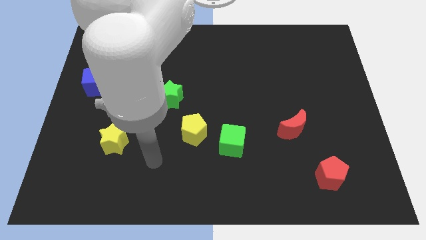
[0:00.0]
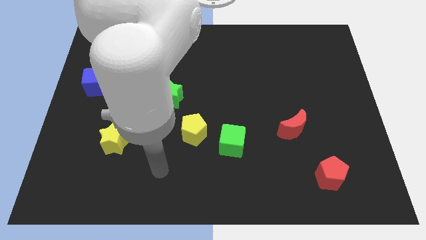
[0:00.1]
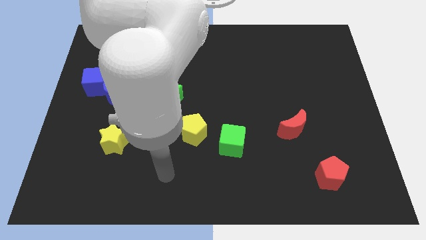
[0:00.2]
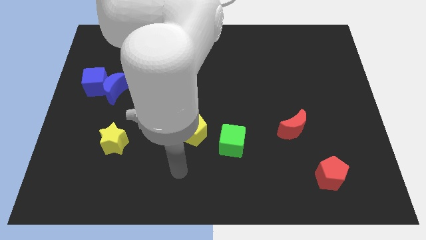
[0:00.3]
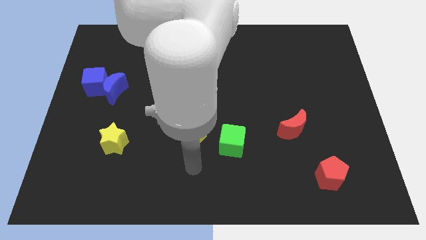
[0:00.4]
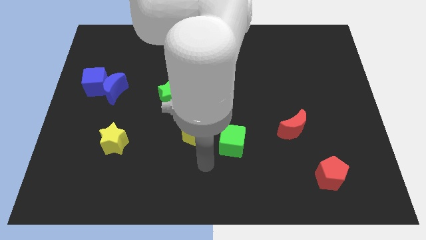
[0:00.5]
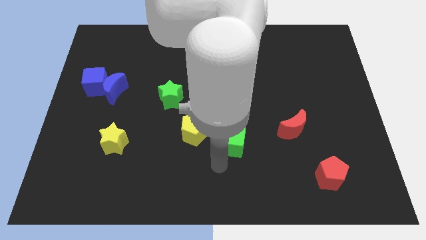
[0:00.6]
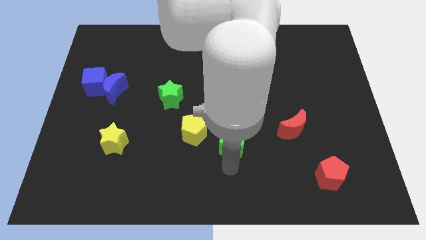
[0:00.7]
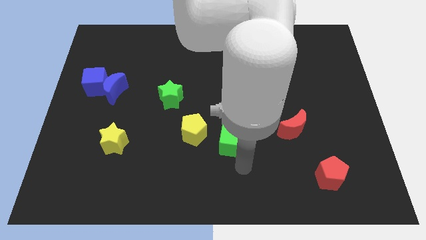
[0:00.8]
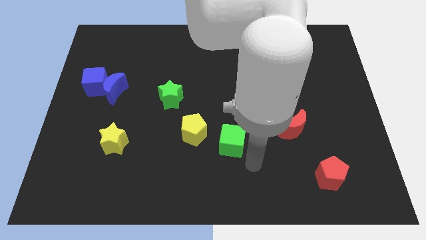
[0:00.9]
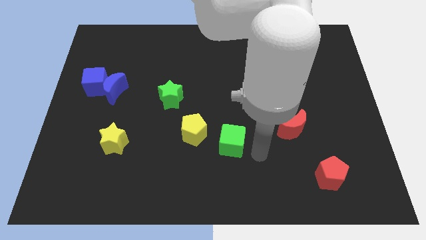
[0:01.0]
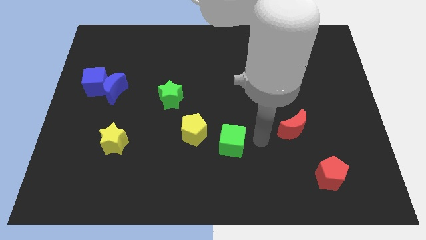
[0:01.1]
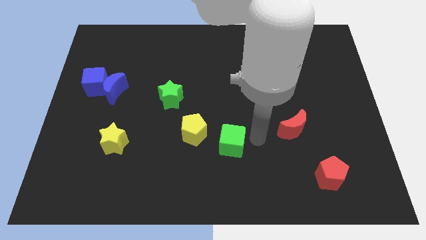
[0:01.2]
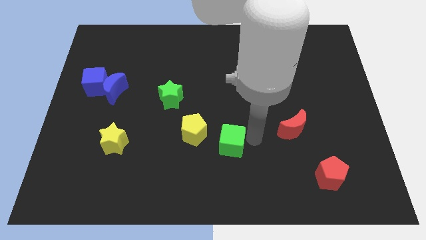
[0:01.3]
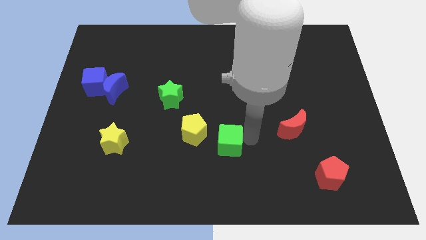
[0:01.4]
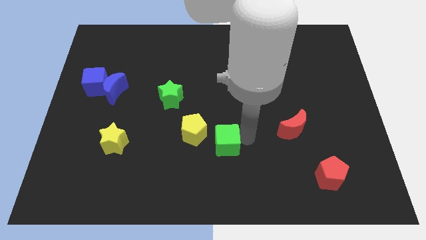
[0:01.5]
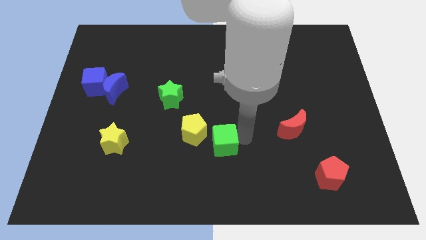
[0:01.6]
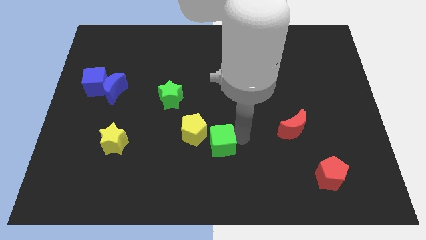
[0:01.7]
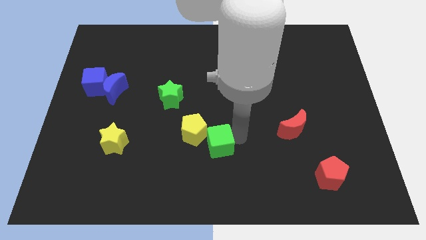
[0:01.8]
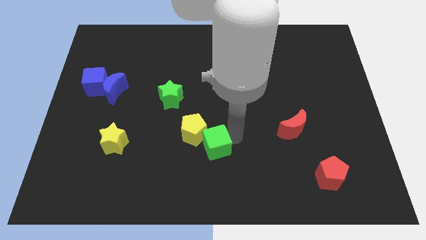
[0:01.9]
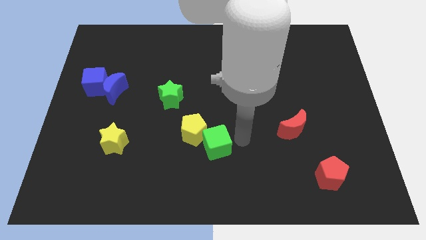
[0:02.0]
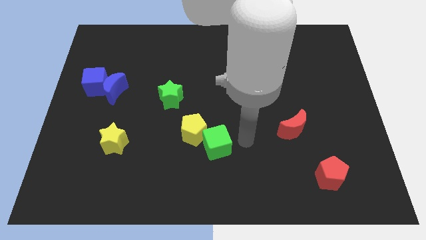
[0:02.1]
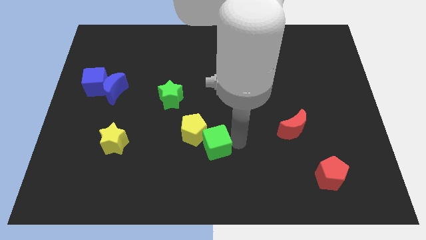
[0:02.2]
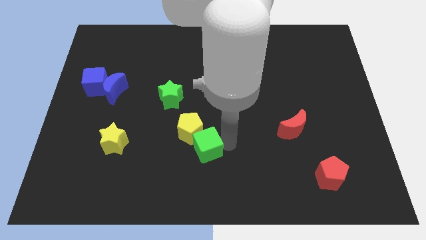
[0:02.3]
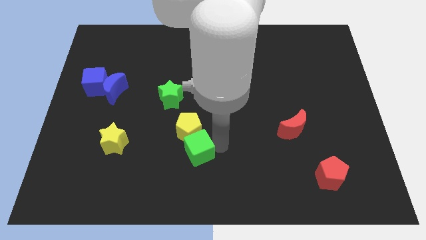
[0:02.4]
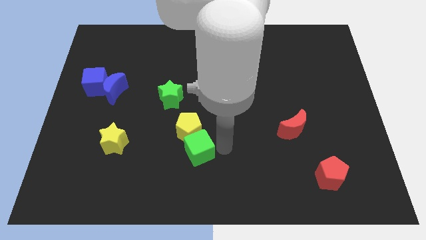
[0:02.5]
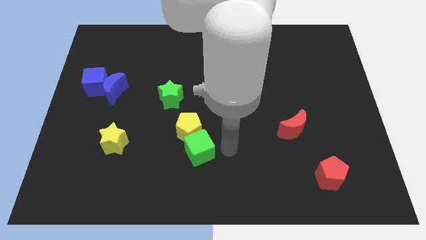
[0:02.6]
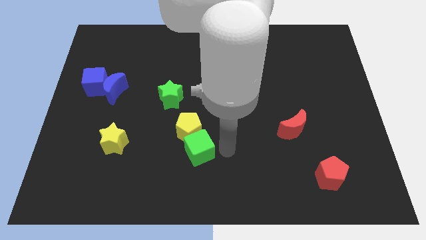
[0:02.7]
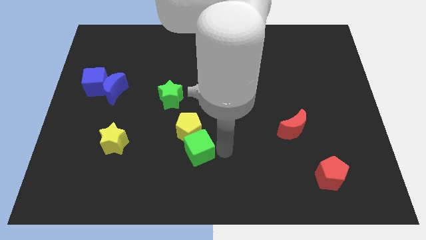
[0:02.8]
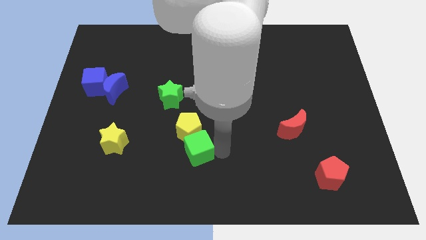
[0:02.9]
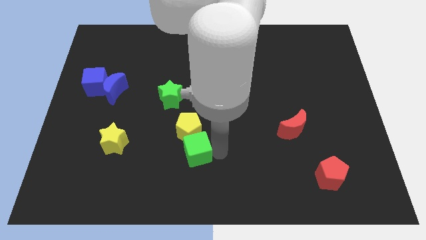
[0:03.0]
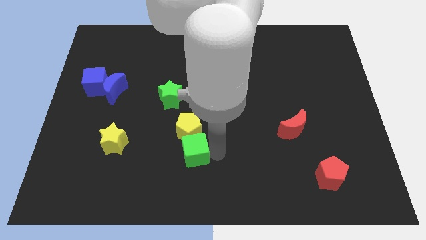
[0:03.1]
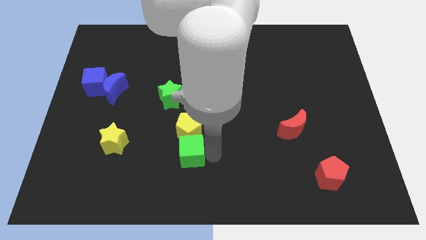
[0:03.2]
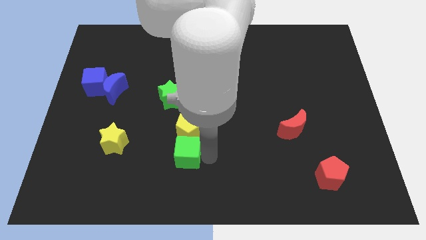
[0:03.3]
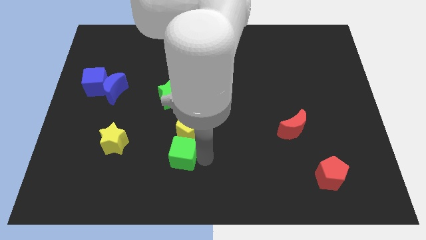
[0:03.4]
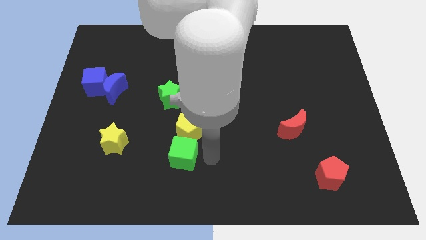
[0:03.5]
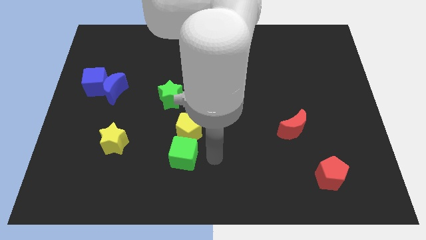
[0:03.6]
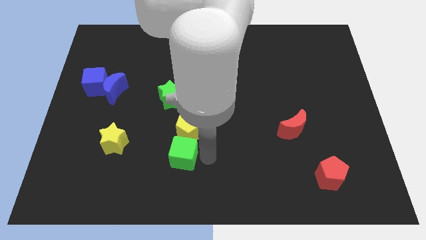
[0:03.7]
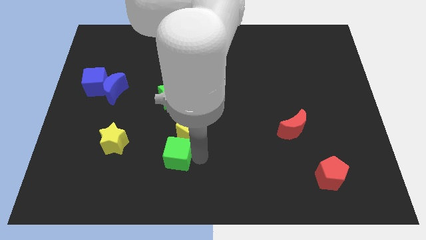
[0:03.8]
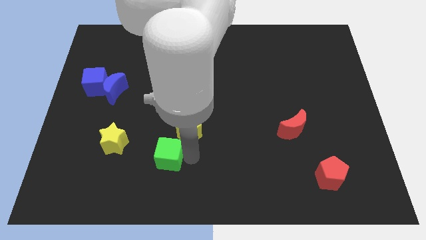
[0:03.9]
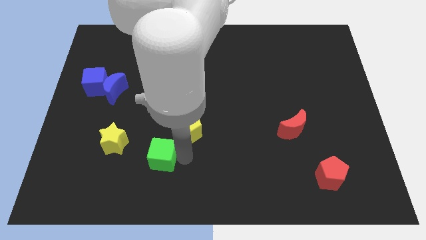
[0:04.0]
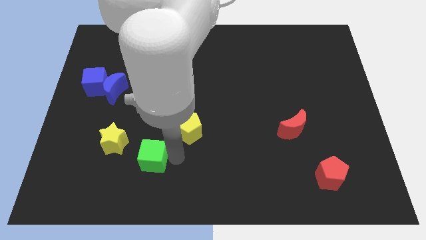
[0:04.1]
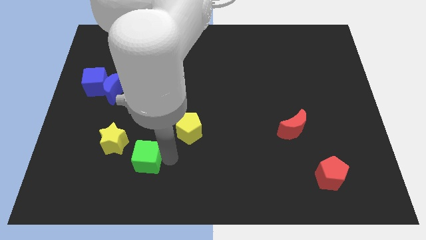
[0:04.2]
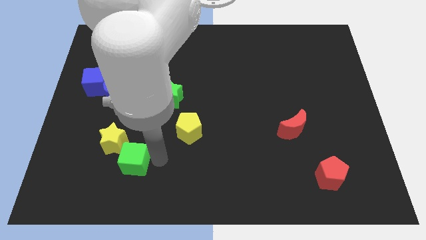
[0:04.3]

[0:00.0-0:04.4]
slide the green cube left

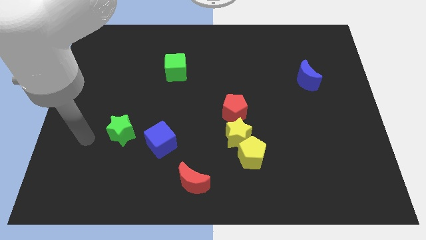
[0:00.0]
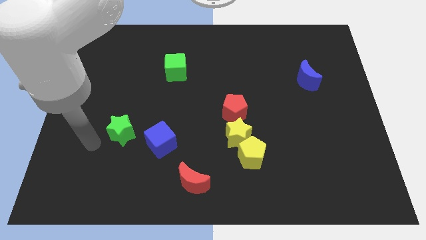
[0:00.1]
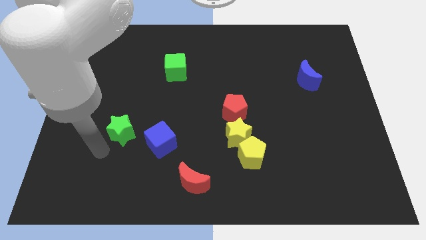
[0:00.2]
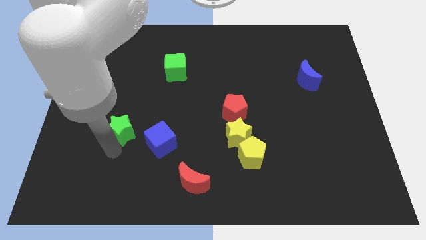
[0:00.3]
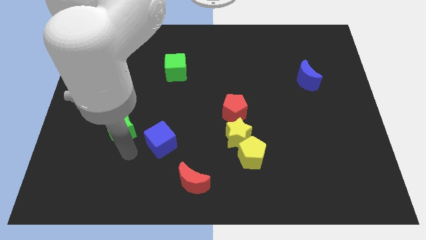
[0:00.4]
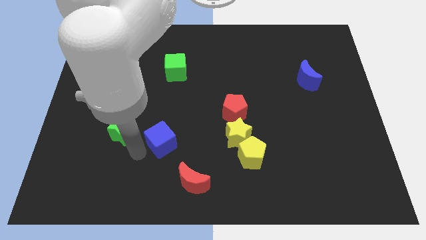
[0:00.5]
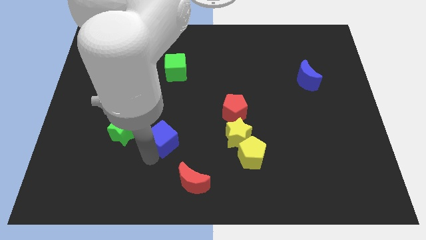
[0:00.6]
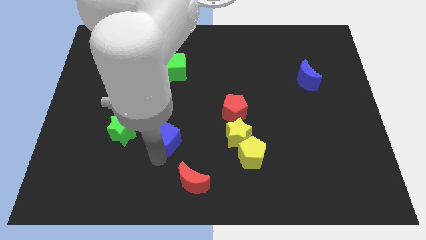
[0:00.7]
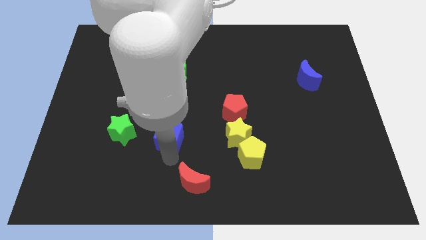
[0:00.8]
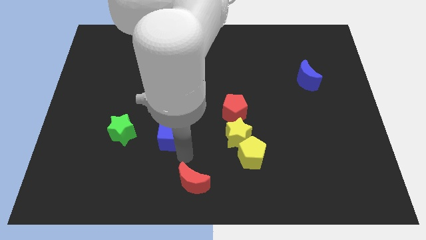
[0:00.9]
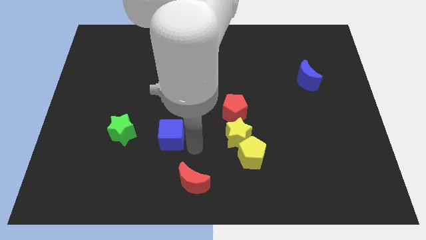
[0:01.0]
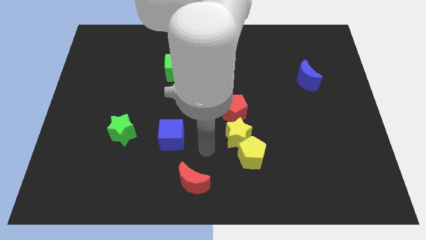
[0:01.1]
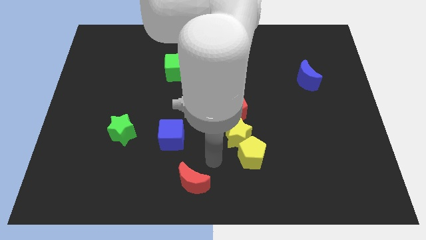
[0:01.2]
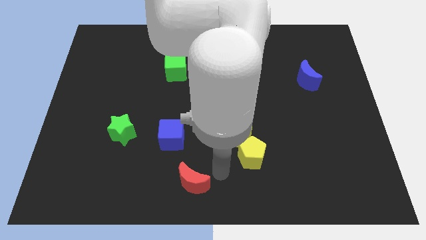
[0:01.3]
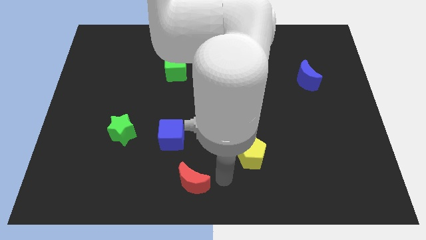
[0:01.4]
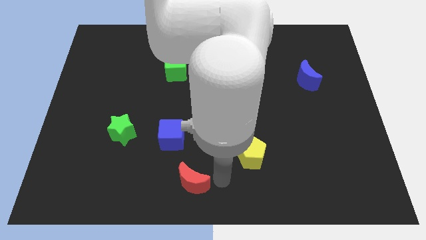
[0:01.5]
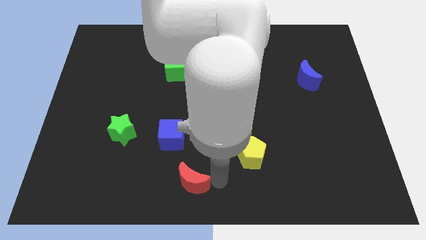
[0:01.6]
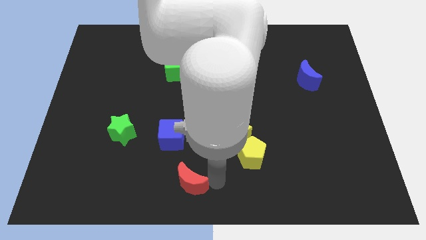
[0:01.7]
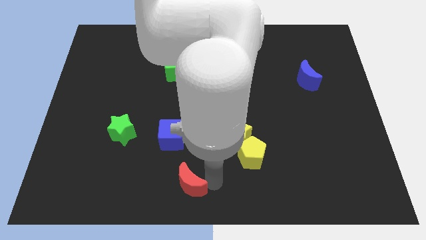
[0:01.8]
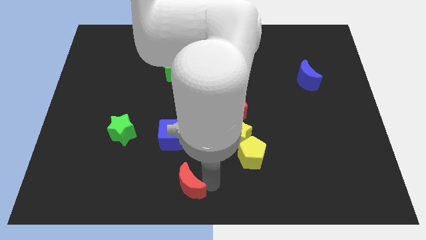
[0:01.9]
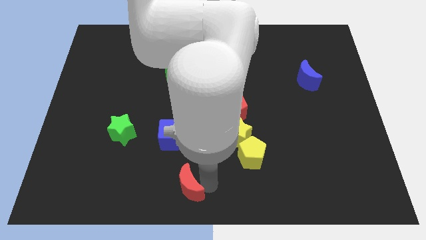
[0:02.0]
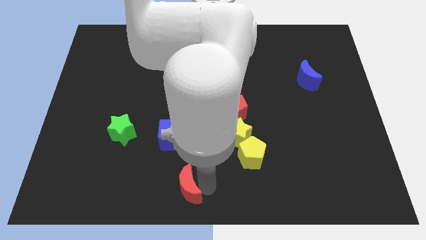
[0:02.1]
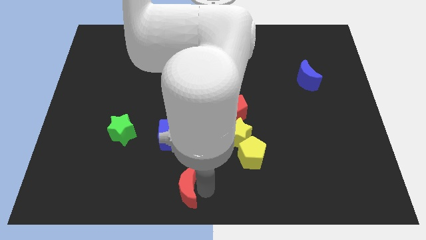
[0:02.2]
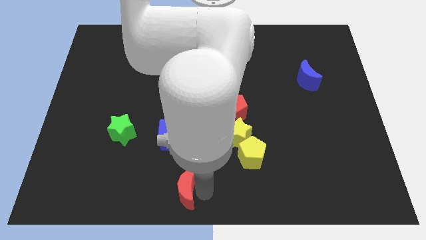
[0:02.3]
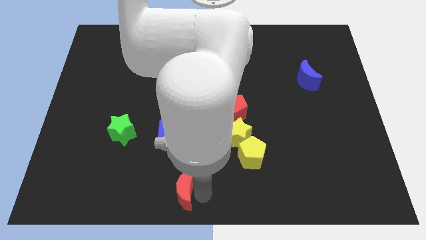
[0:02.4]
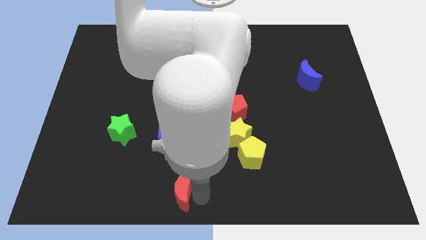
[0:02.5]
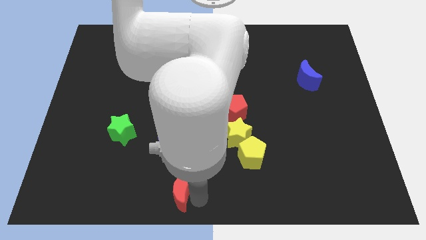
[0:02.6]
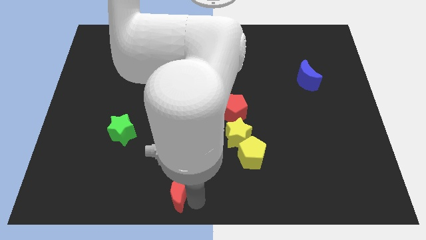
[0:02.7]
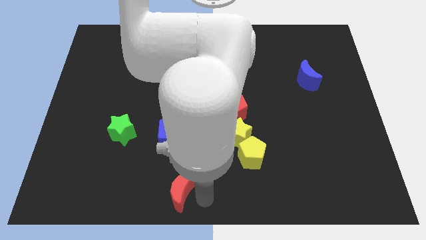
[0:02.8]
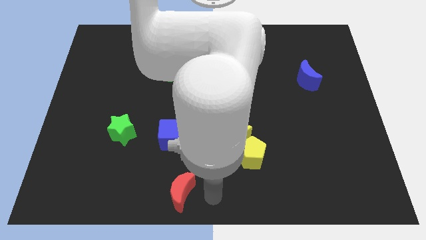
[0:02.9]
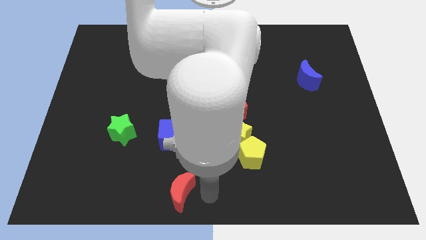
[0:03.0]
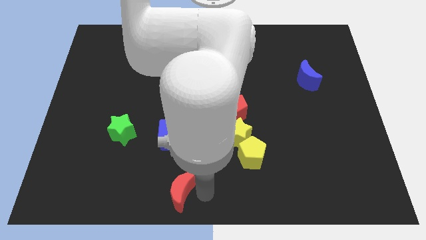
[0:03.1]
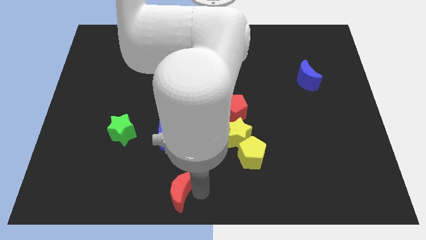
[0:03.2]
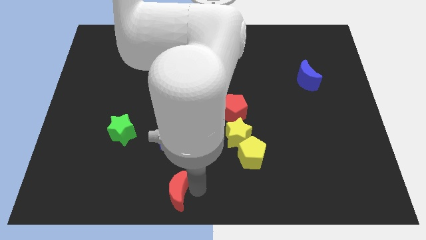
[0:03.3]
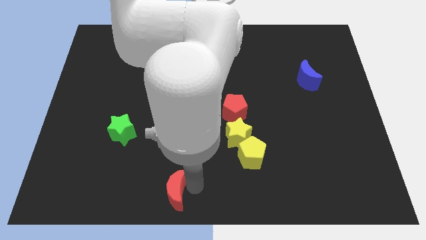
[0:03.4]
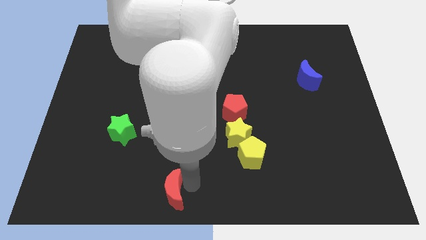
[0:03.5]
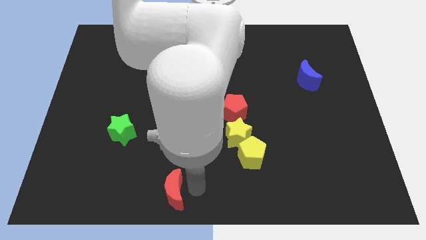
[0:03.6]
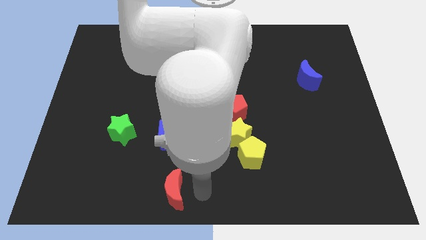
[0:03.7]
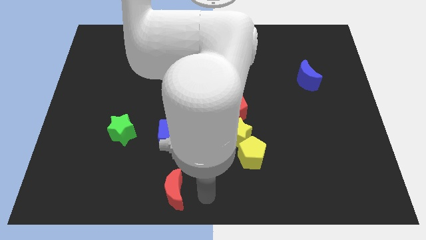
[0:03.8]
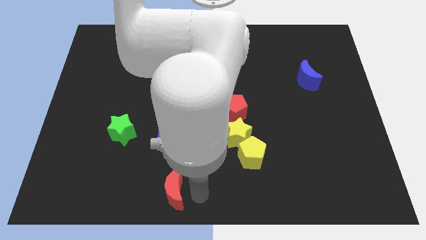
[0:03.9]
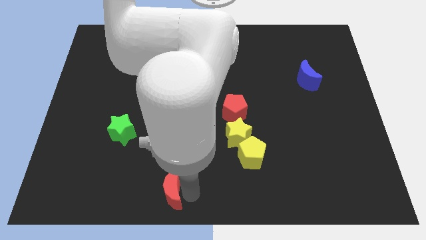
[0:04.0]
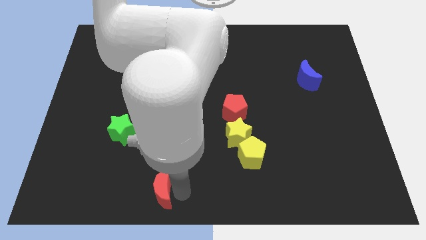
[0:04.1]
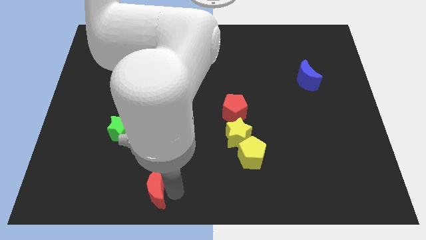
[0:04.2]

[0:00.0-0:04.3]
slightly slide the red moon left
